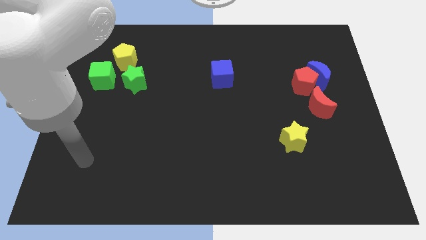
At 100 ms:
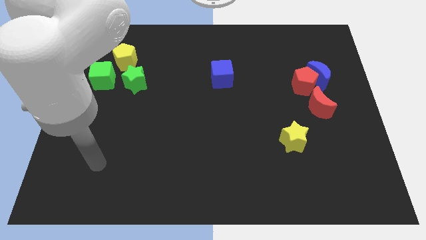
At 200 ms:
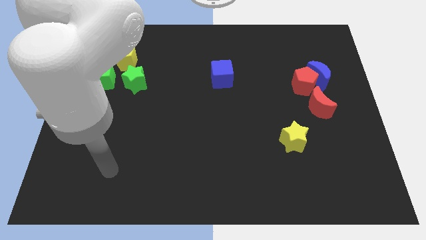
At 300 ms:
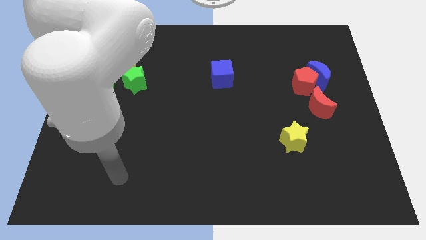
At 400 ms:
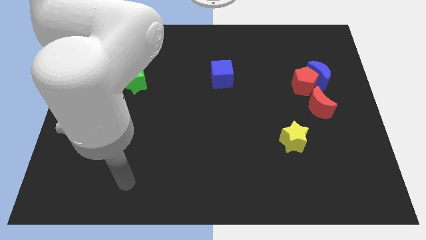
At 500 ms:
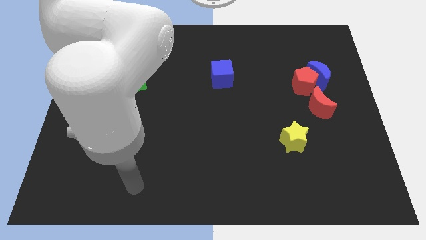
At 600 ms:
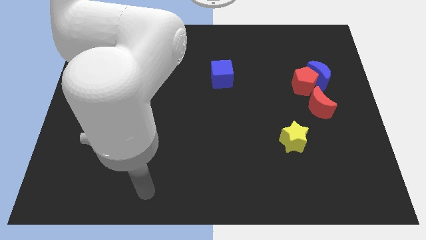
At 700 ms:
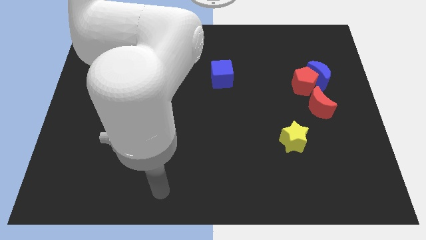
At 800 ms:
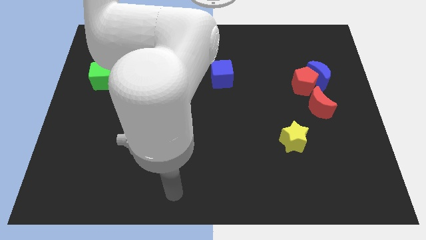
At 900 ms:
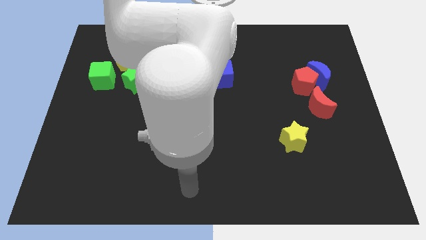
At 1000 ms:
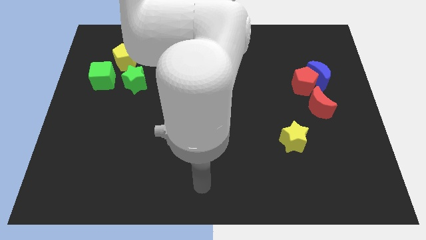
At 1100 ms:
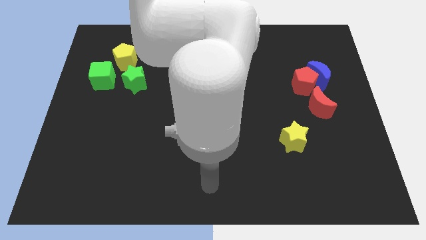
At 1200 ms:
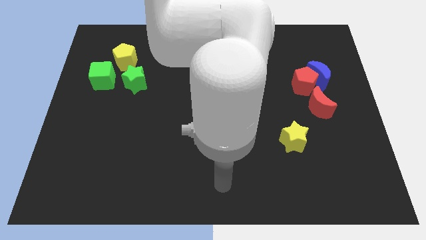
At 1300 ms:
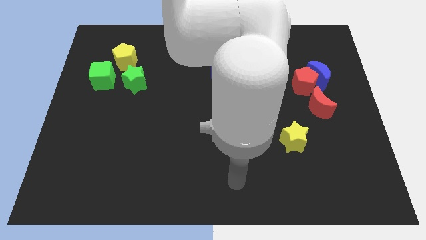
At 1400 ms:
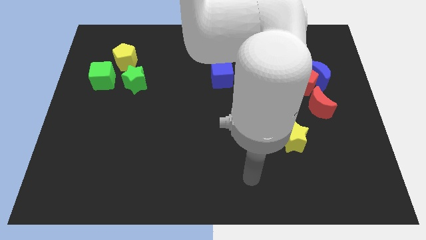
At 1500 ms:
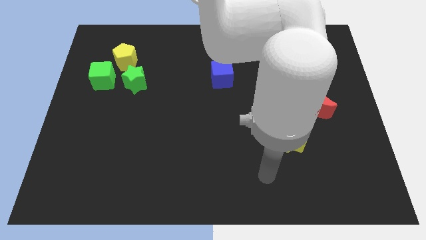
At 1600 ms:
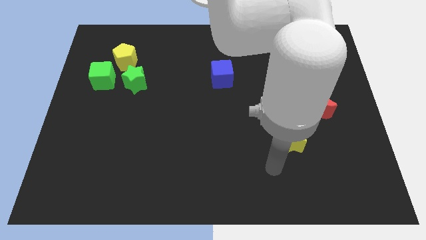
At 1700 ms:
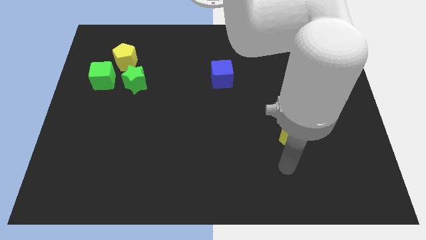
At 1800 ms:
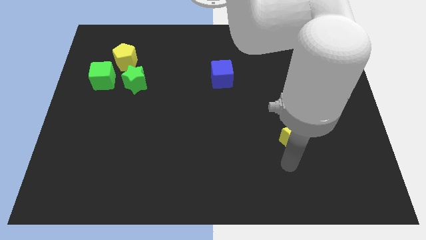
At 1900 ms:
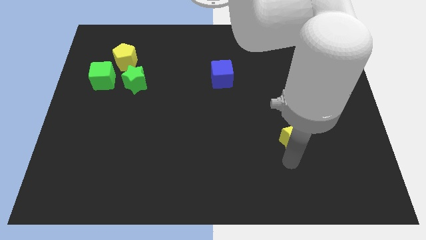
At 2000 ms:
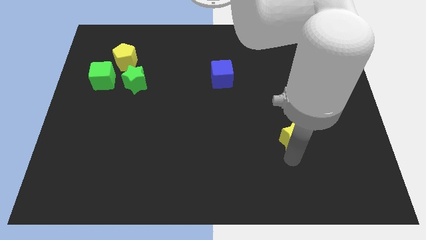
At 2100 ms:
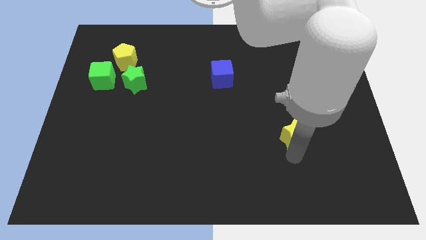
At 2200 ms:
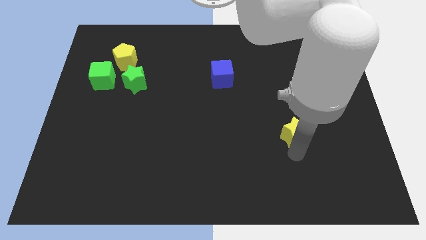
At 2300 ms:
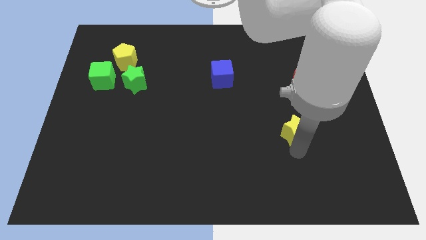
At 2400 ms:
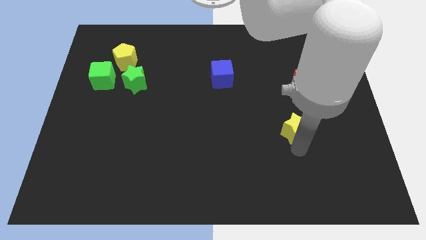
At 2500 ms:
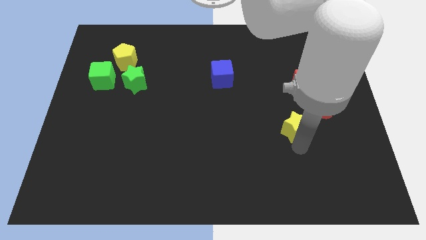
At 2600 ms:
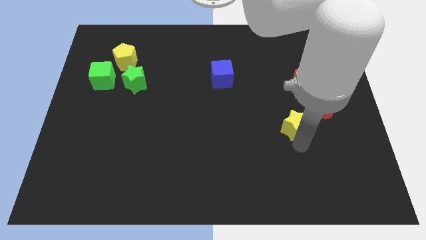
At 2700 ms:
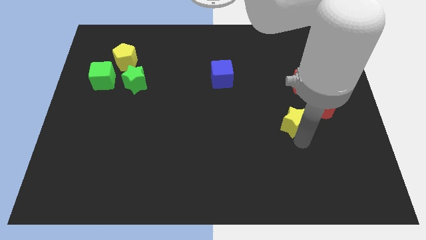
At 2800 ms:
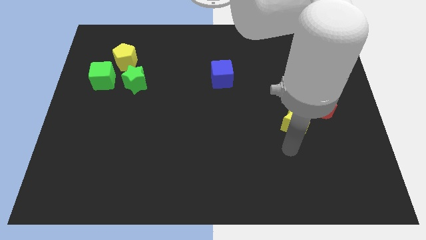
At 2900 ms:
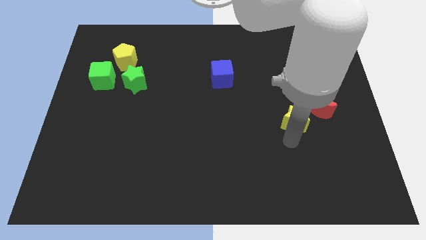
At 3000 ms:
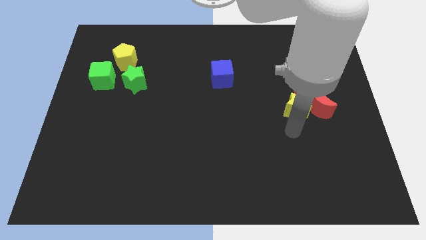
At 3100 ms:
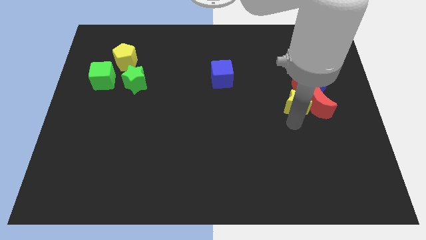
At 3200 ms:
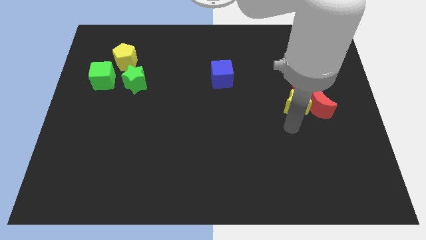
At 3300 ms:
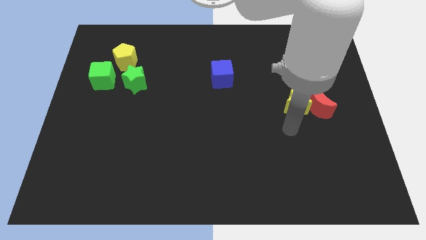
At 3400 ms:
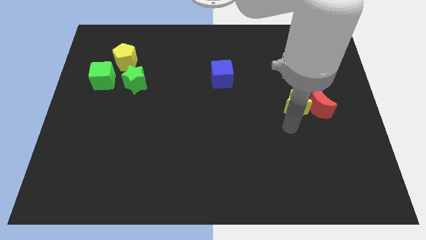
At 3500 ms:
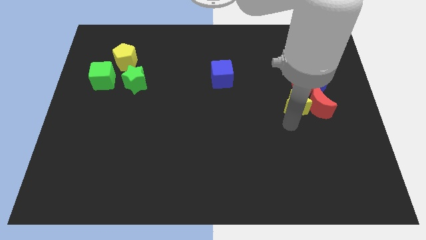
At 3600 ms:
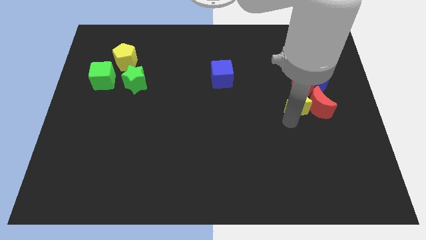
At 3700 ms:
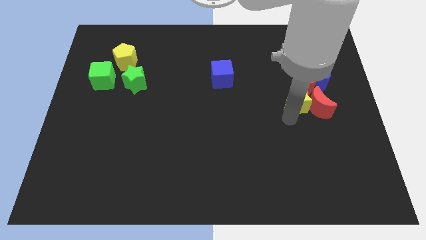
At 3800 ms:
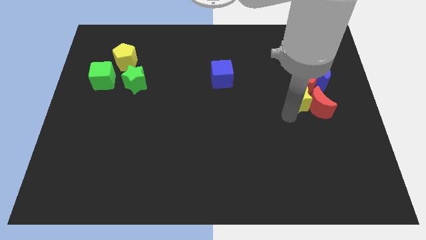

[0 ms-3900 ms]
move the yellow star close to the red pentagon

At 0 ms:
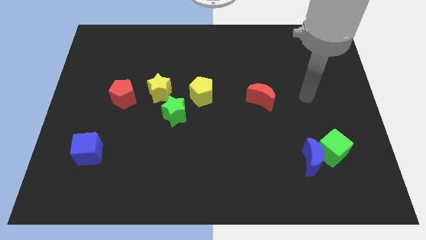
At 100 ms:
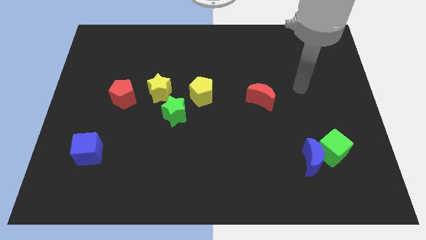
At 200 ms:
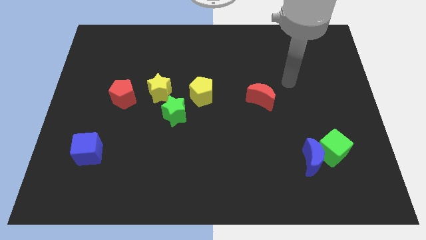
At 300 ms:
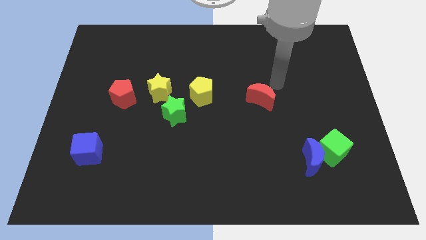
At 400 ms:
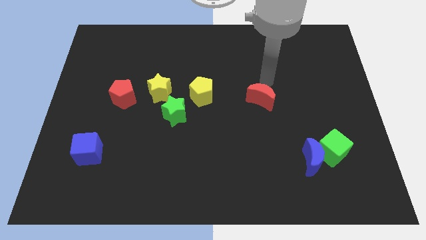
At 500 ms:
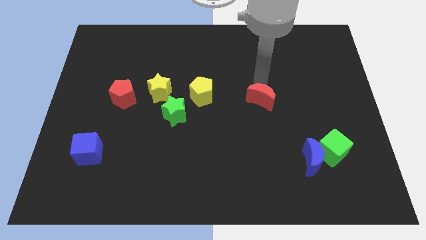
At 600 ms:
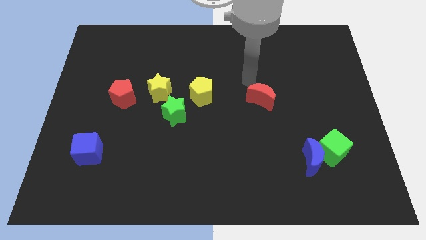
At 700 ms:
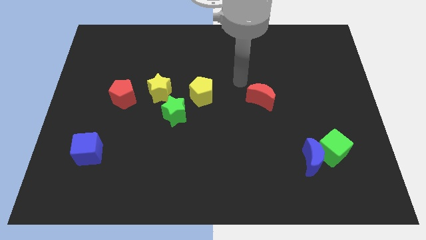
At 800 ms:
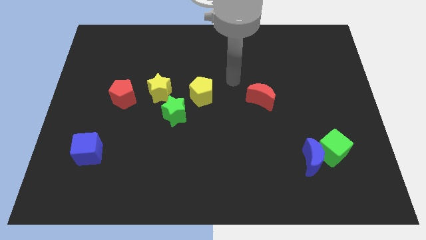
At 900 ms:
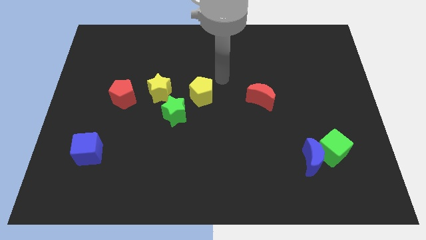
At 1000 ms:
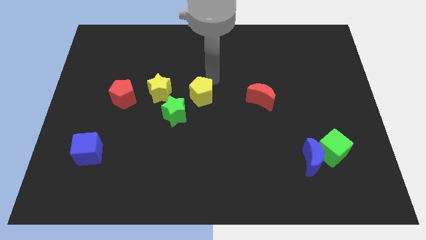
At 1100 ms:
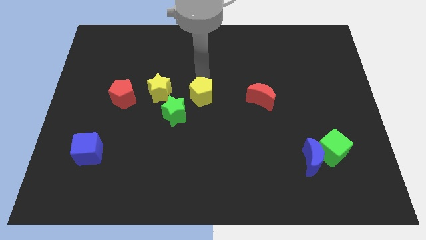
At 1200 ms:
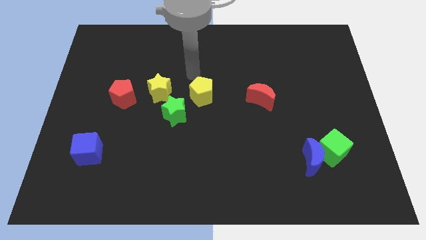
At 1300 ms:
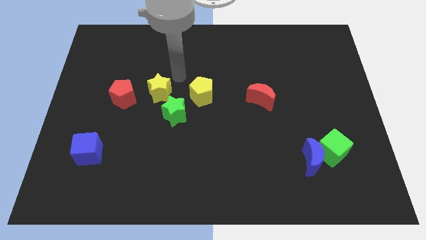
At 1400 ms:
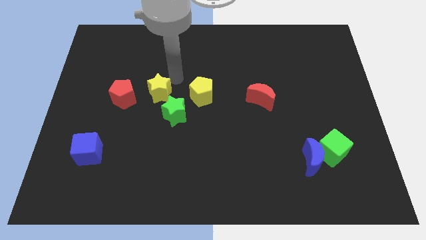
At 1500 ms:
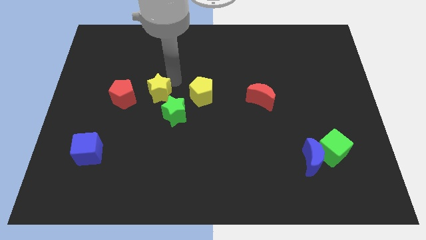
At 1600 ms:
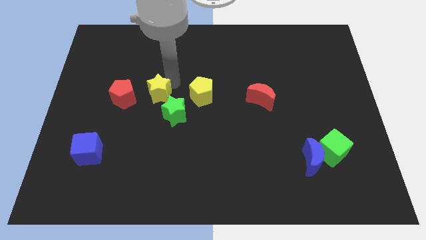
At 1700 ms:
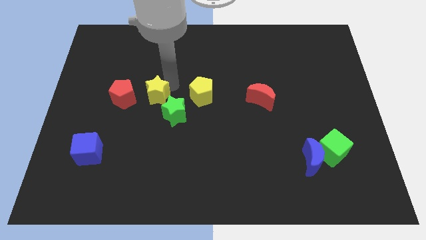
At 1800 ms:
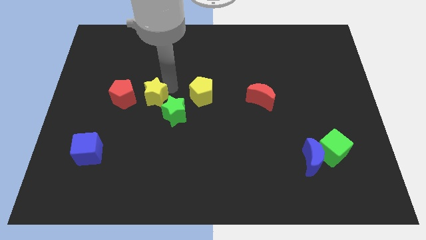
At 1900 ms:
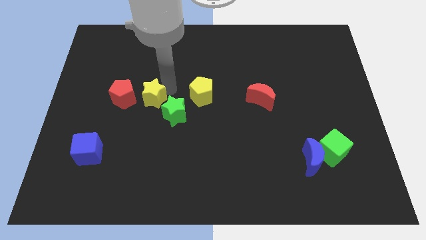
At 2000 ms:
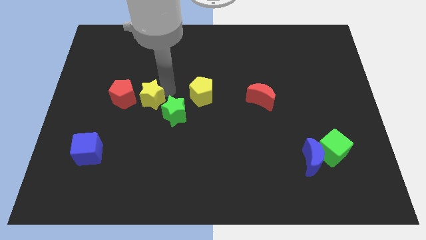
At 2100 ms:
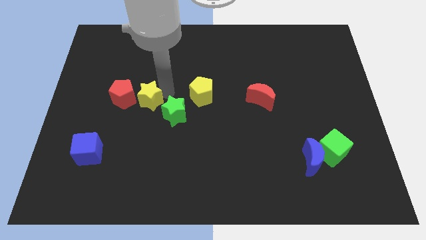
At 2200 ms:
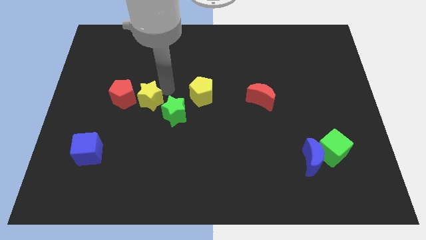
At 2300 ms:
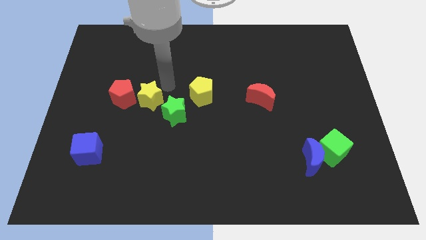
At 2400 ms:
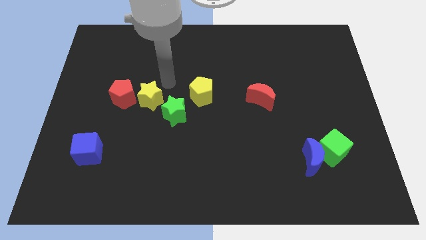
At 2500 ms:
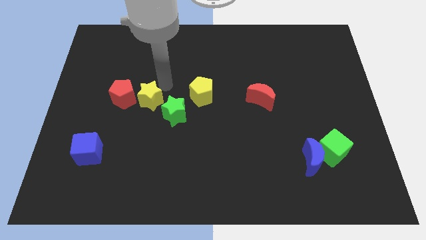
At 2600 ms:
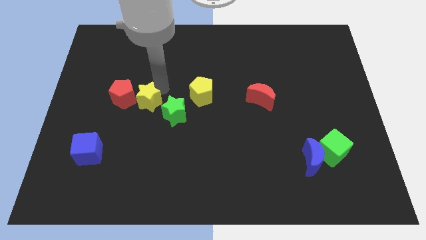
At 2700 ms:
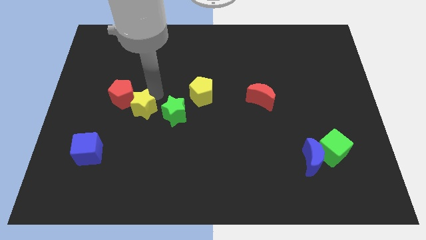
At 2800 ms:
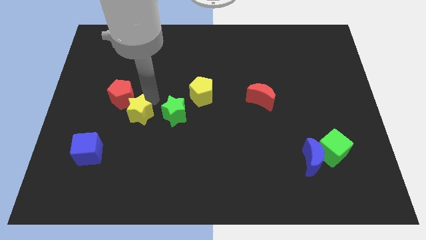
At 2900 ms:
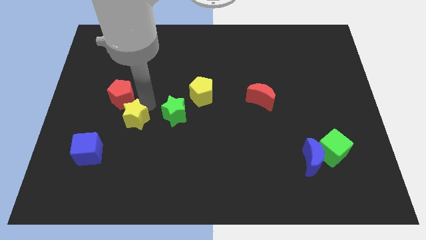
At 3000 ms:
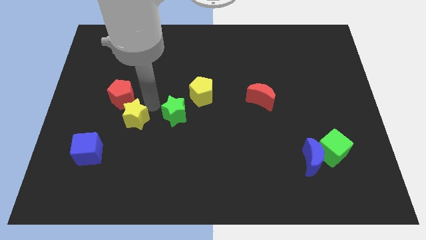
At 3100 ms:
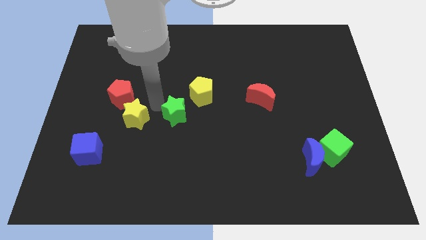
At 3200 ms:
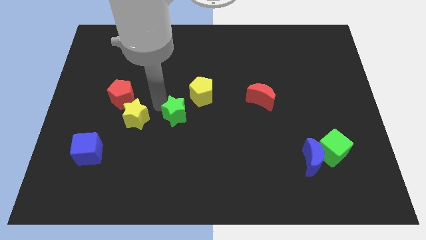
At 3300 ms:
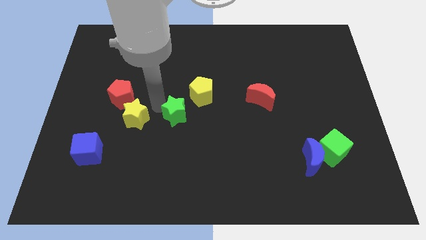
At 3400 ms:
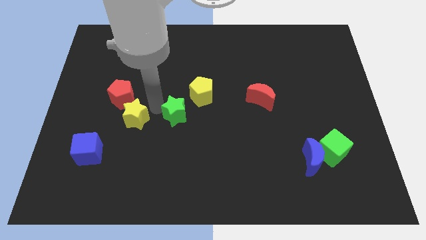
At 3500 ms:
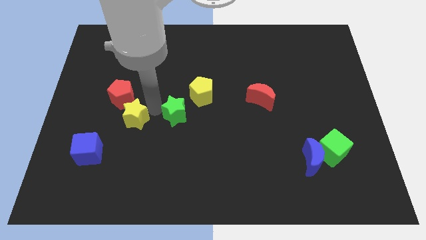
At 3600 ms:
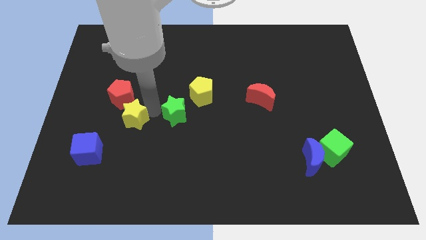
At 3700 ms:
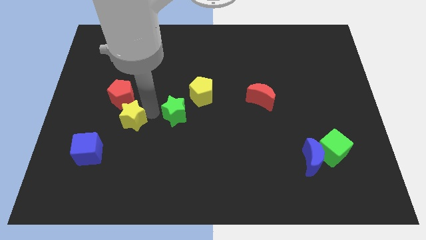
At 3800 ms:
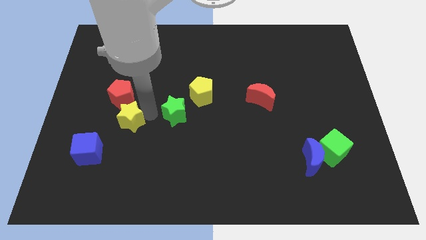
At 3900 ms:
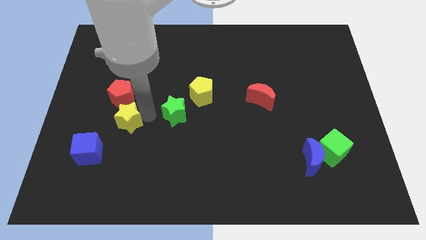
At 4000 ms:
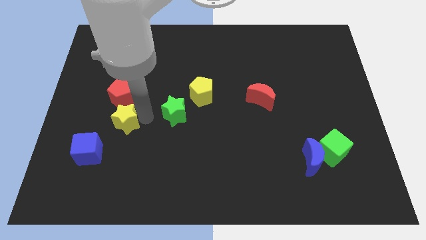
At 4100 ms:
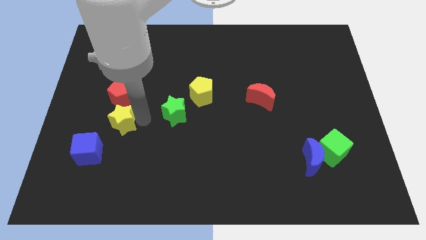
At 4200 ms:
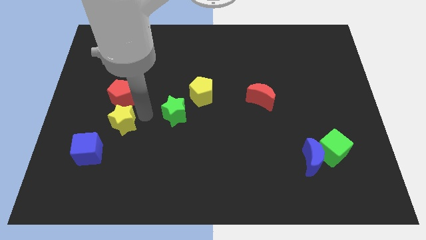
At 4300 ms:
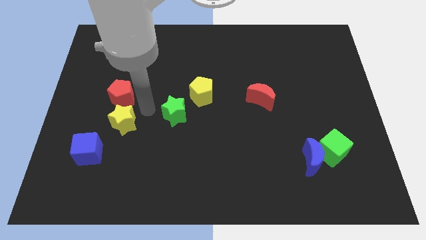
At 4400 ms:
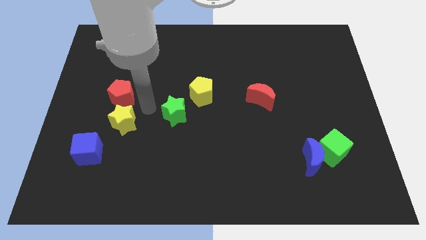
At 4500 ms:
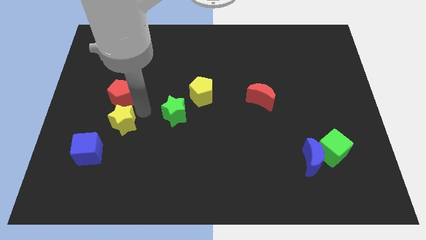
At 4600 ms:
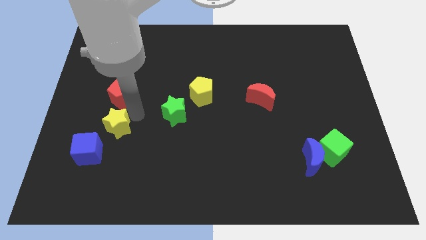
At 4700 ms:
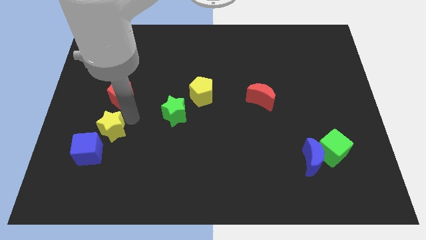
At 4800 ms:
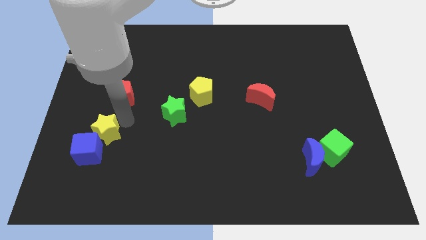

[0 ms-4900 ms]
push the yellow star to the blue cube
